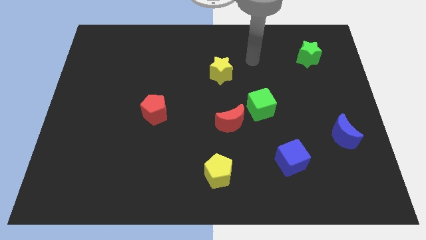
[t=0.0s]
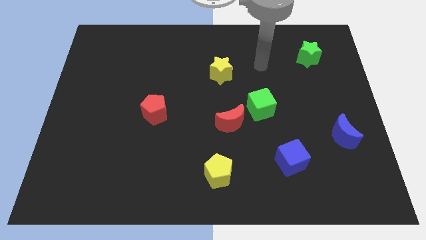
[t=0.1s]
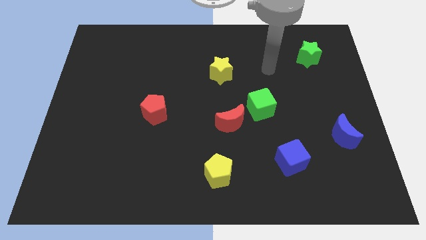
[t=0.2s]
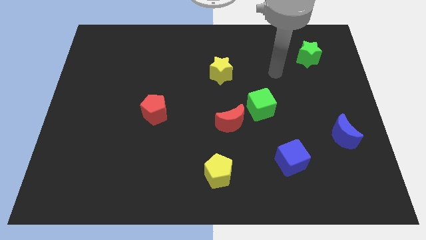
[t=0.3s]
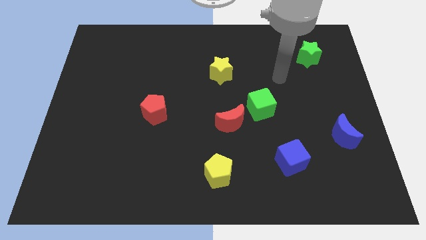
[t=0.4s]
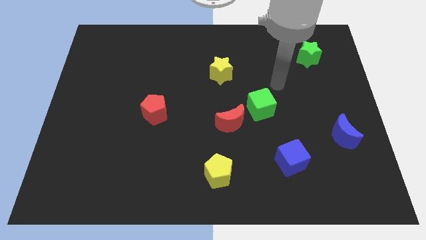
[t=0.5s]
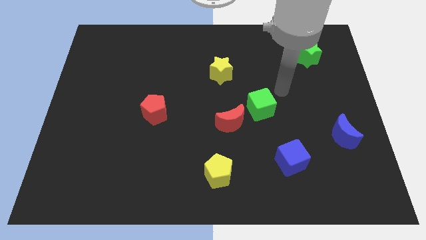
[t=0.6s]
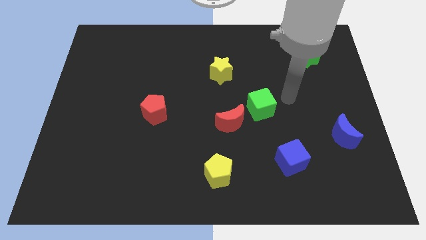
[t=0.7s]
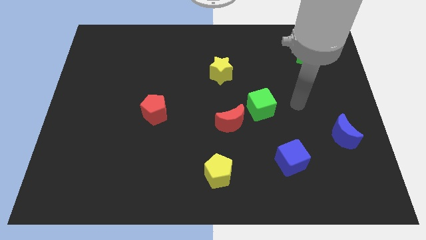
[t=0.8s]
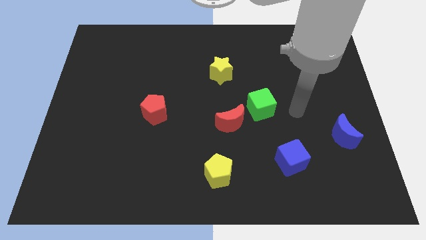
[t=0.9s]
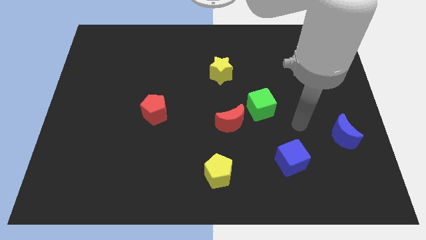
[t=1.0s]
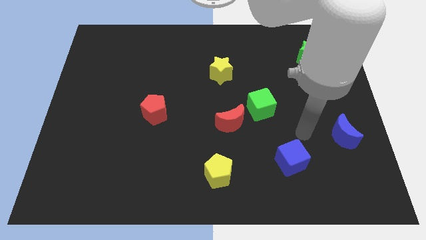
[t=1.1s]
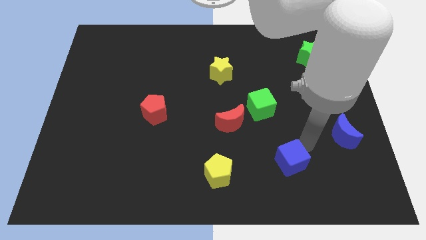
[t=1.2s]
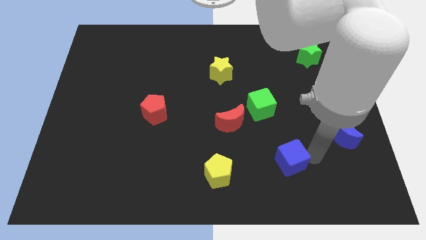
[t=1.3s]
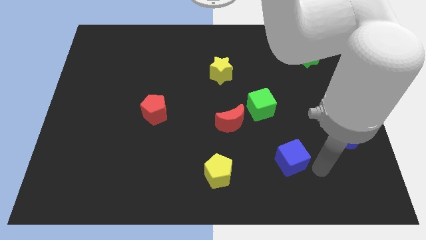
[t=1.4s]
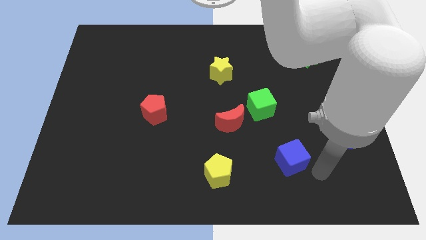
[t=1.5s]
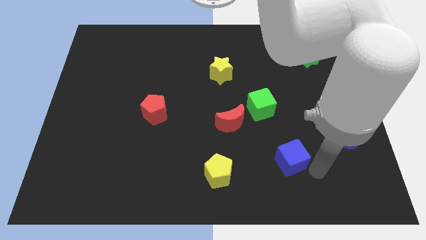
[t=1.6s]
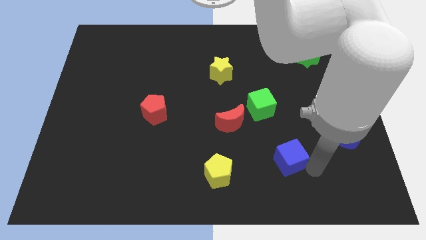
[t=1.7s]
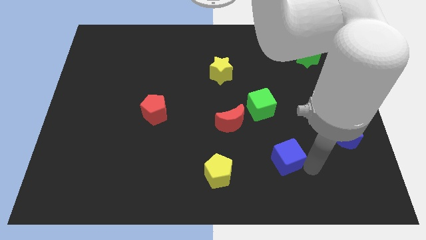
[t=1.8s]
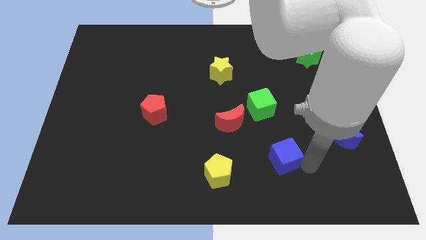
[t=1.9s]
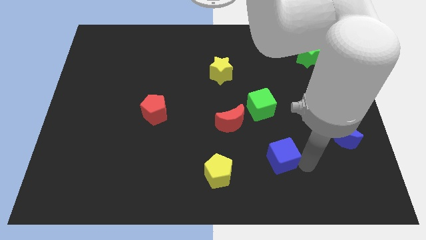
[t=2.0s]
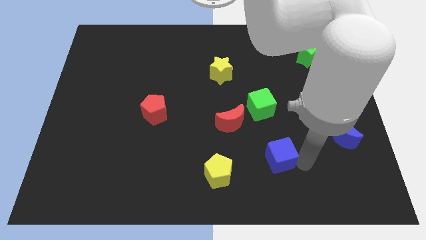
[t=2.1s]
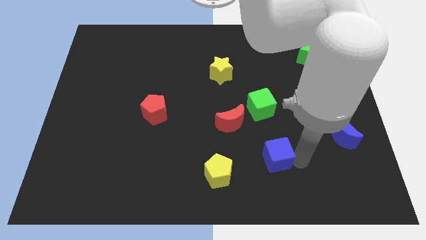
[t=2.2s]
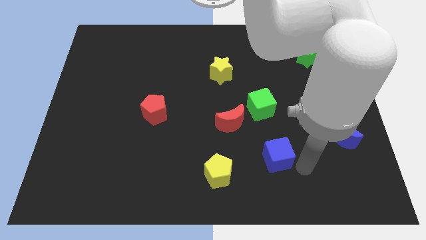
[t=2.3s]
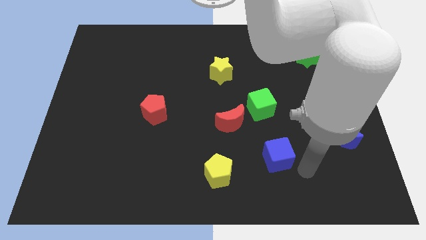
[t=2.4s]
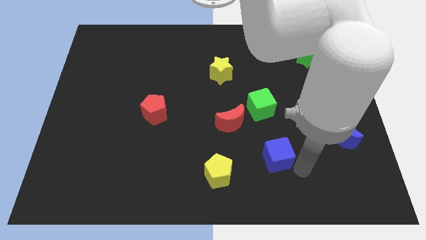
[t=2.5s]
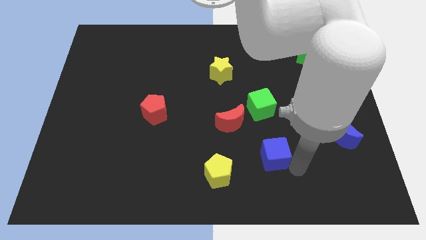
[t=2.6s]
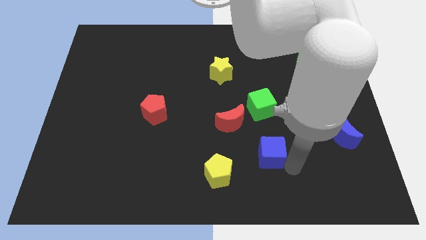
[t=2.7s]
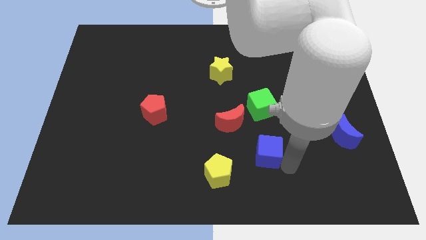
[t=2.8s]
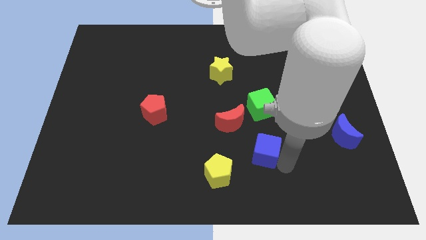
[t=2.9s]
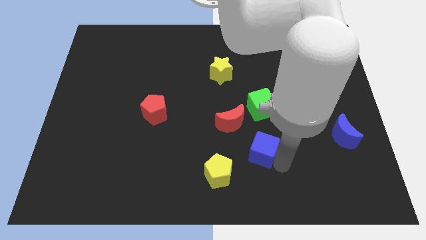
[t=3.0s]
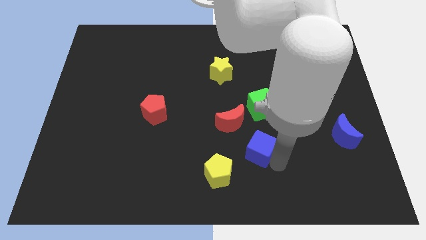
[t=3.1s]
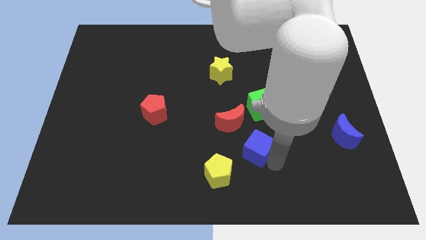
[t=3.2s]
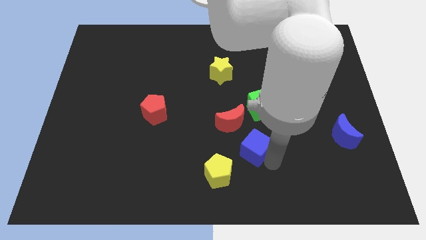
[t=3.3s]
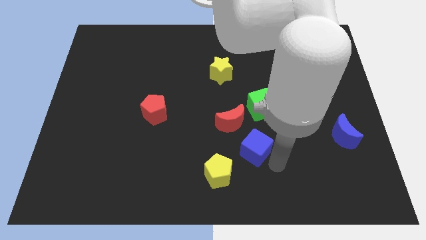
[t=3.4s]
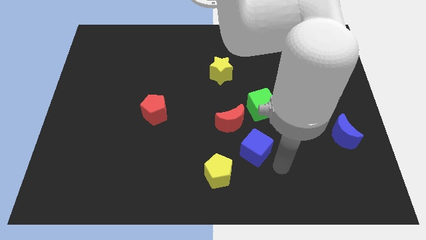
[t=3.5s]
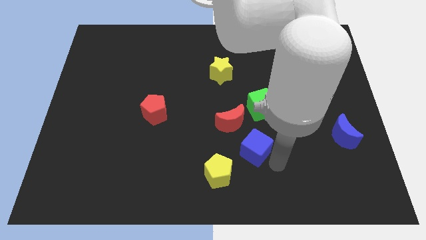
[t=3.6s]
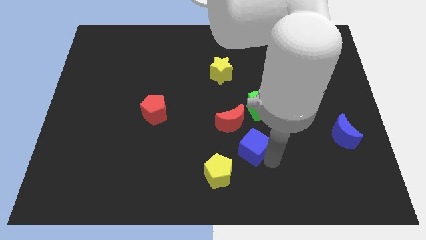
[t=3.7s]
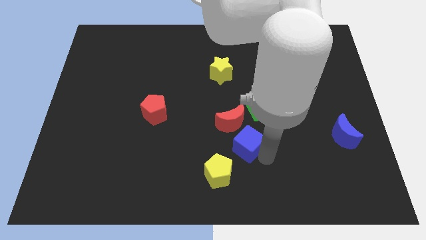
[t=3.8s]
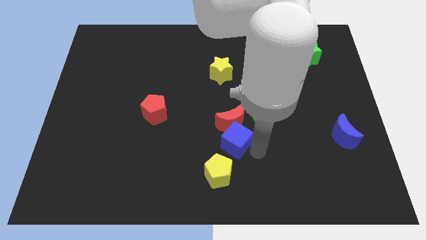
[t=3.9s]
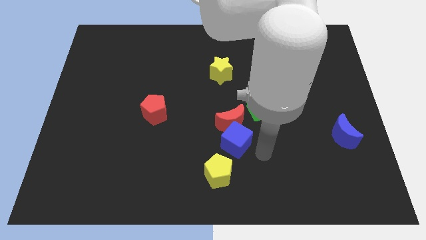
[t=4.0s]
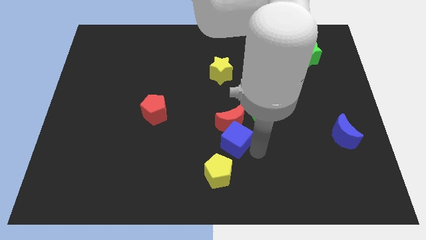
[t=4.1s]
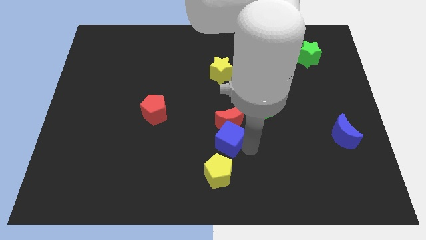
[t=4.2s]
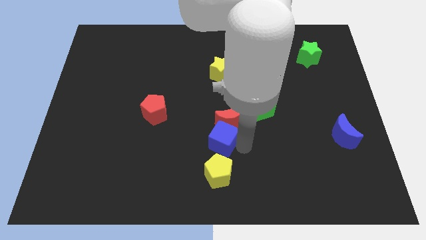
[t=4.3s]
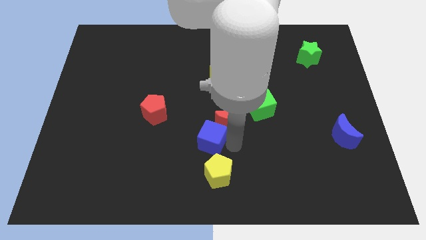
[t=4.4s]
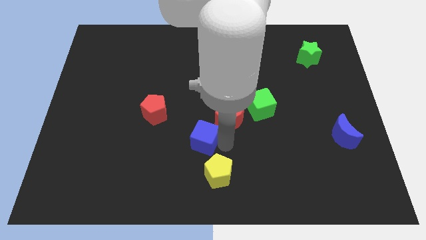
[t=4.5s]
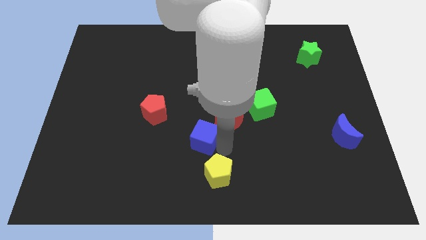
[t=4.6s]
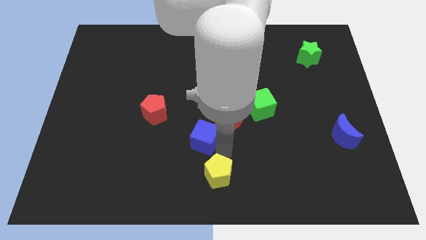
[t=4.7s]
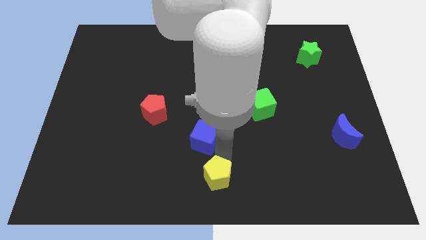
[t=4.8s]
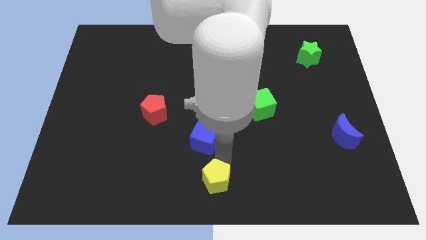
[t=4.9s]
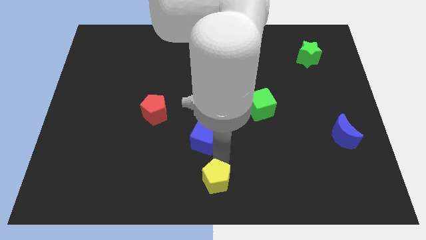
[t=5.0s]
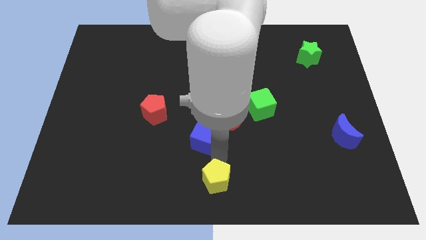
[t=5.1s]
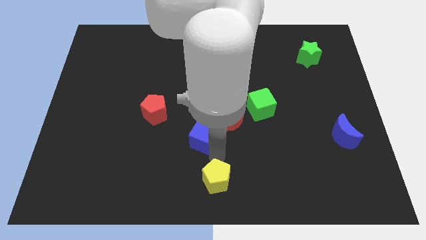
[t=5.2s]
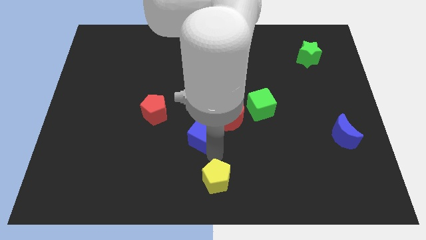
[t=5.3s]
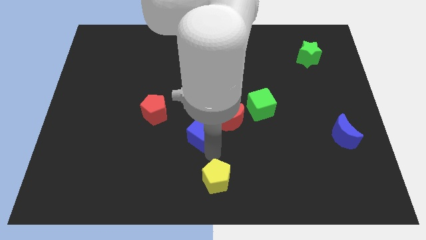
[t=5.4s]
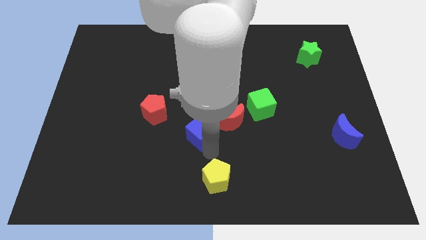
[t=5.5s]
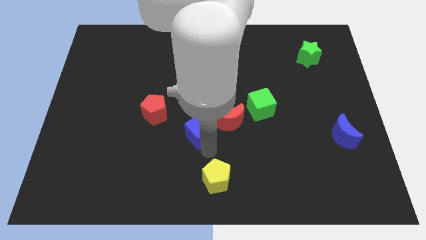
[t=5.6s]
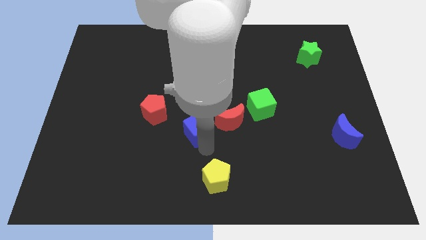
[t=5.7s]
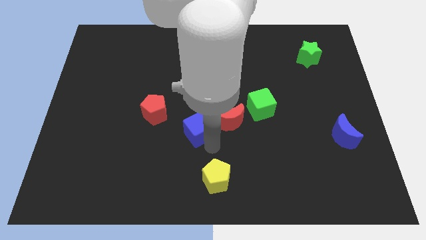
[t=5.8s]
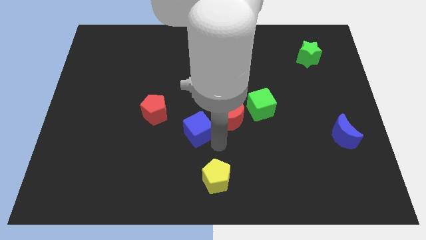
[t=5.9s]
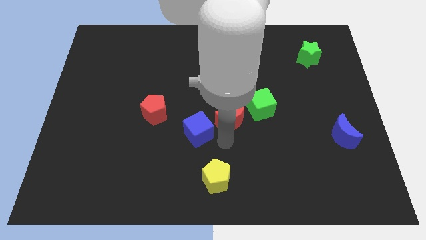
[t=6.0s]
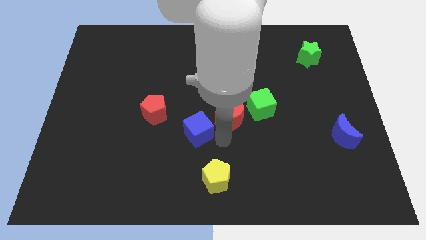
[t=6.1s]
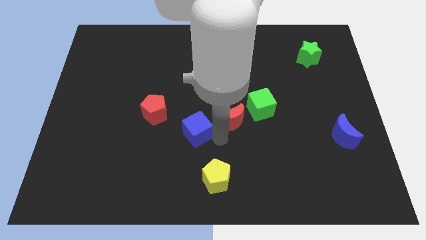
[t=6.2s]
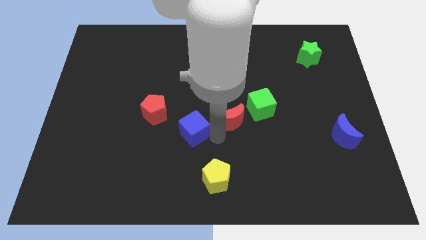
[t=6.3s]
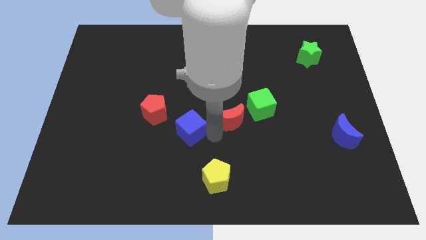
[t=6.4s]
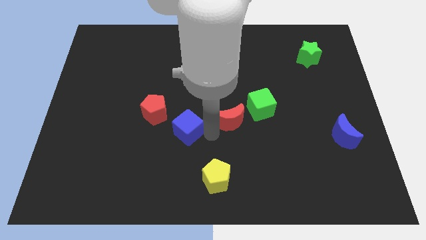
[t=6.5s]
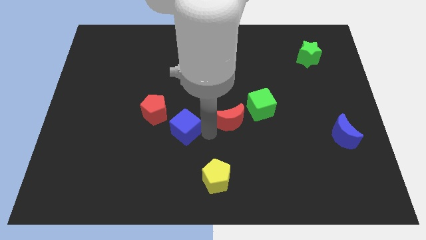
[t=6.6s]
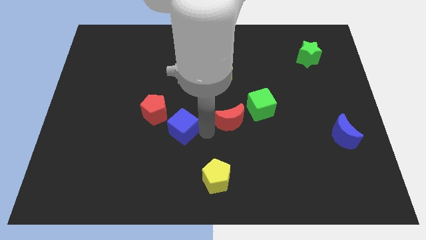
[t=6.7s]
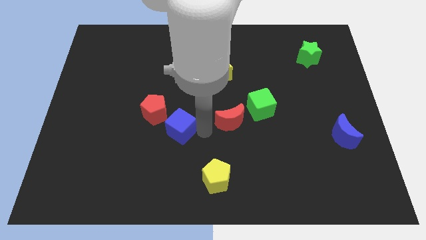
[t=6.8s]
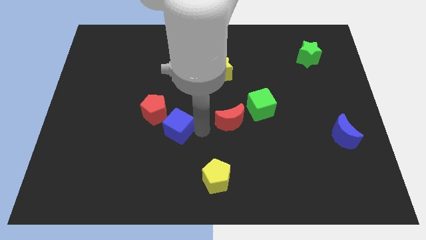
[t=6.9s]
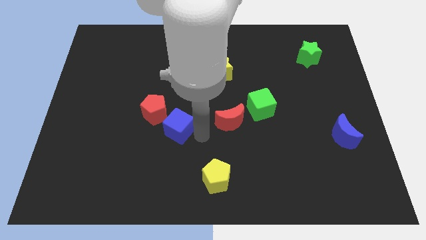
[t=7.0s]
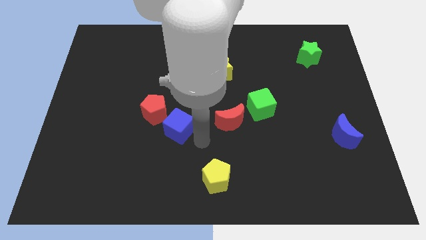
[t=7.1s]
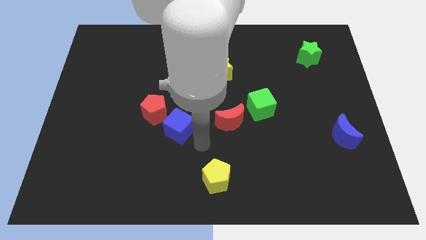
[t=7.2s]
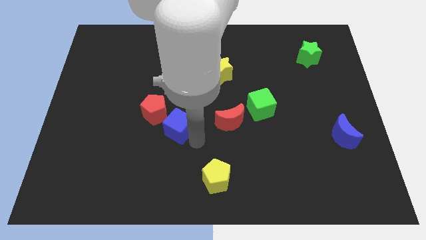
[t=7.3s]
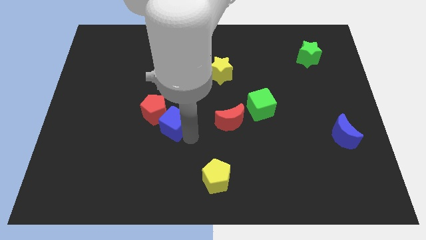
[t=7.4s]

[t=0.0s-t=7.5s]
put the blue cube close to the red pentagon

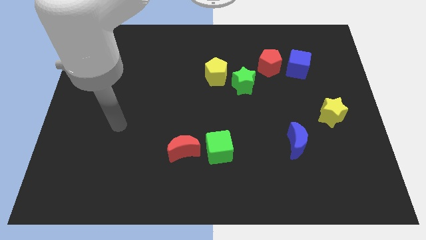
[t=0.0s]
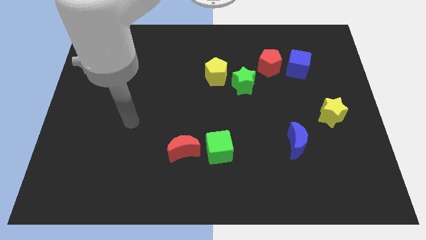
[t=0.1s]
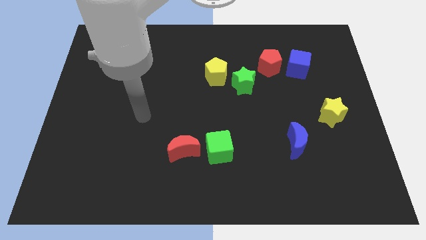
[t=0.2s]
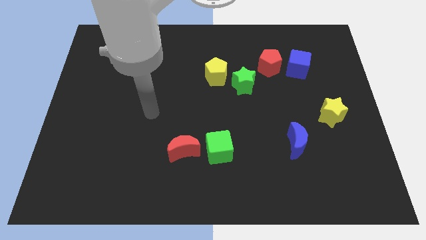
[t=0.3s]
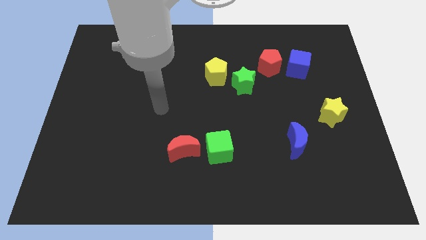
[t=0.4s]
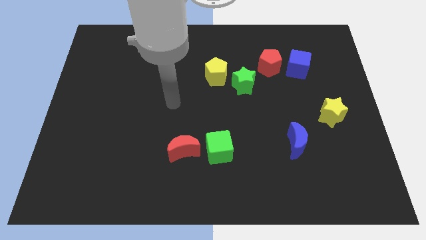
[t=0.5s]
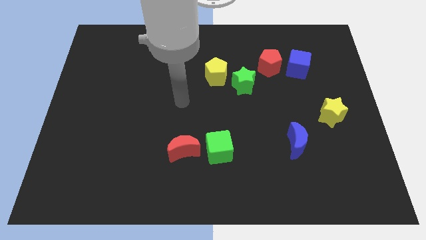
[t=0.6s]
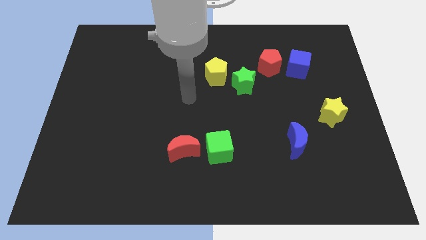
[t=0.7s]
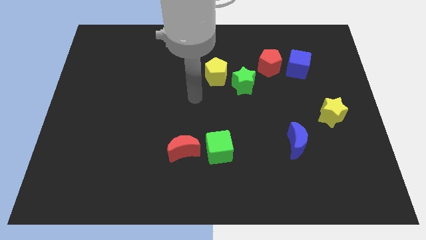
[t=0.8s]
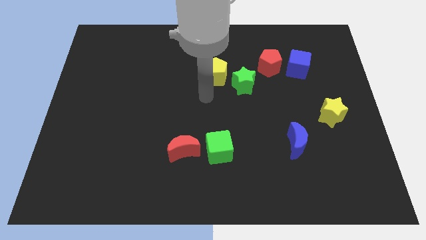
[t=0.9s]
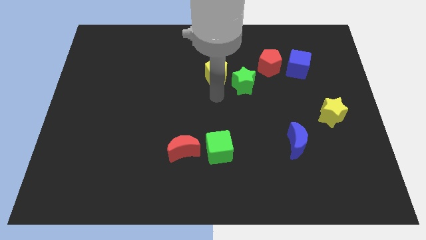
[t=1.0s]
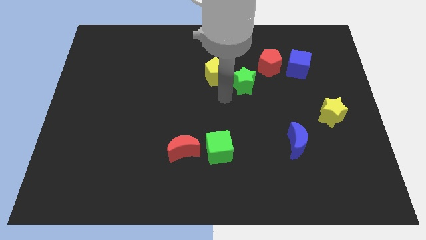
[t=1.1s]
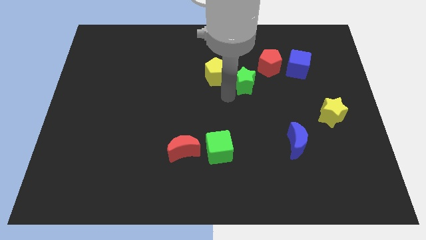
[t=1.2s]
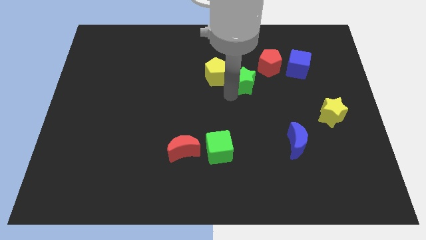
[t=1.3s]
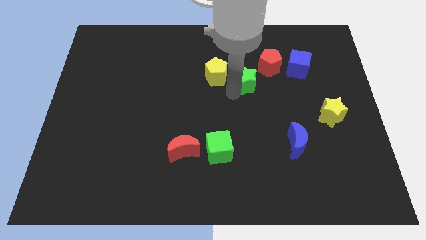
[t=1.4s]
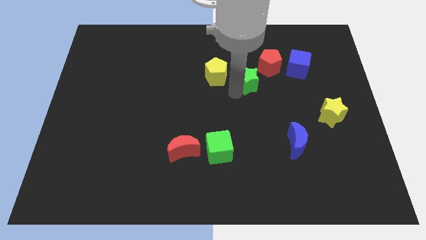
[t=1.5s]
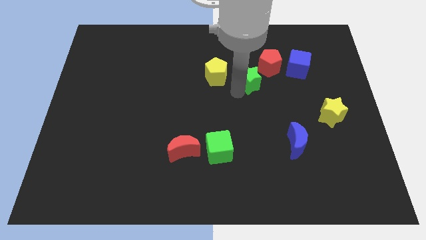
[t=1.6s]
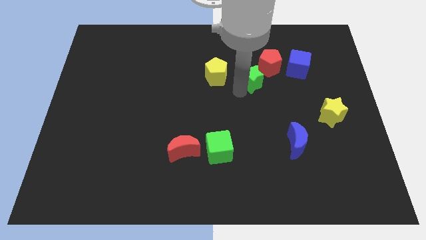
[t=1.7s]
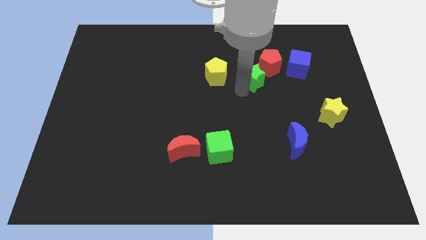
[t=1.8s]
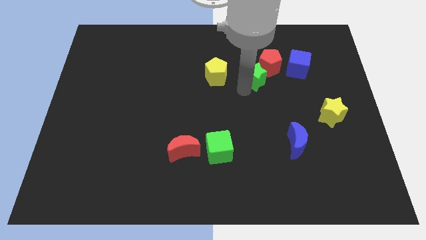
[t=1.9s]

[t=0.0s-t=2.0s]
put the green star next to the red pentagon
